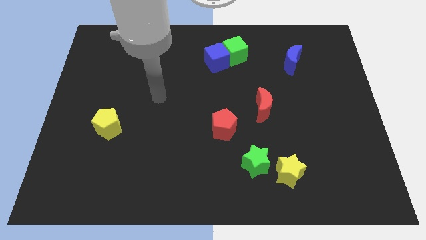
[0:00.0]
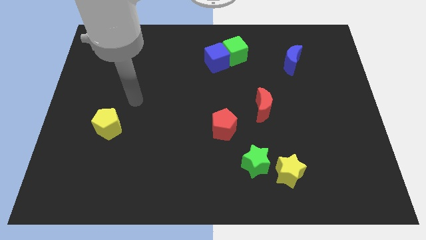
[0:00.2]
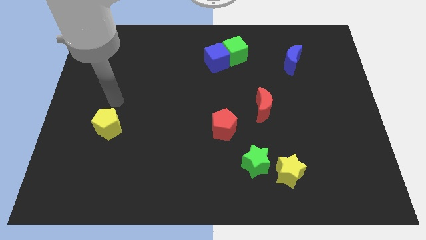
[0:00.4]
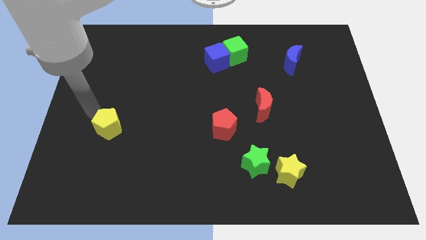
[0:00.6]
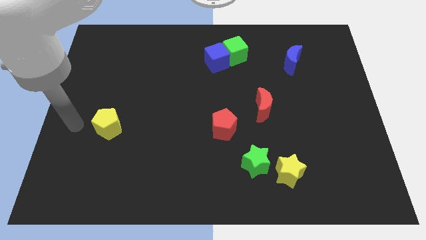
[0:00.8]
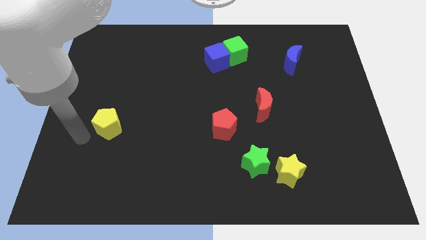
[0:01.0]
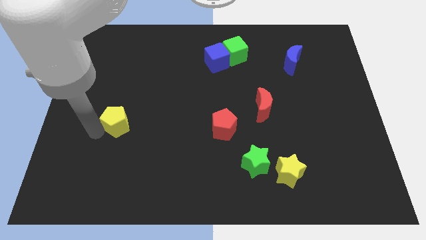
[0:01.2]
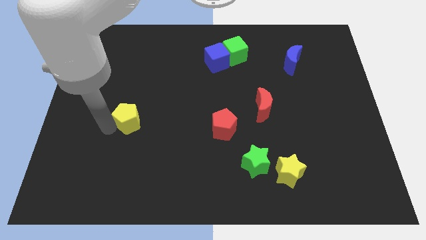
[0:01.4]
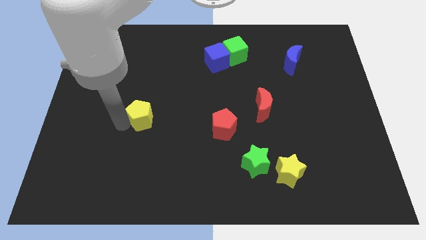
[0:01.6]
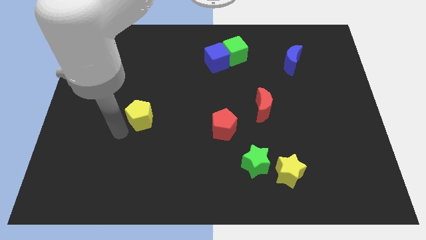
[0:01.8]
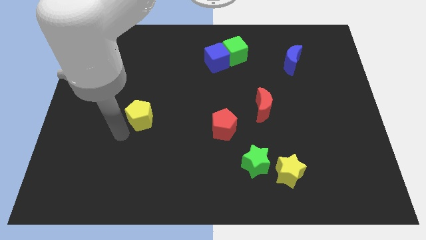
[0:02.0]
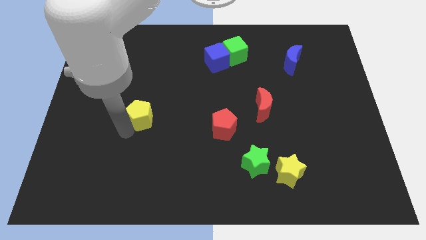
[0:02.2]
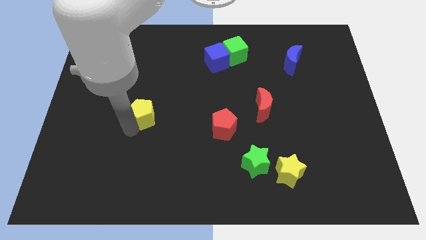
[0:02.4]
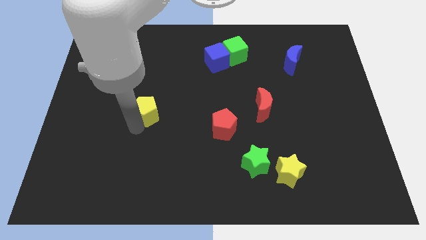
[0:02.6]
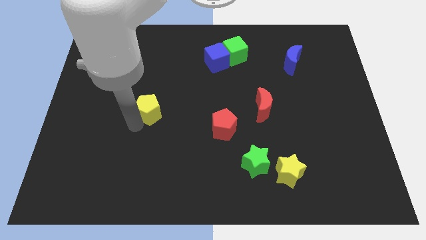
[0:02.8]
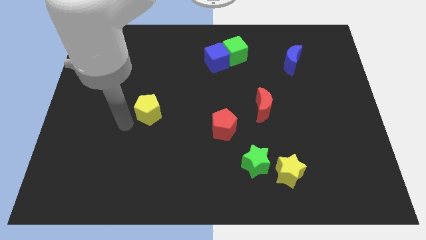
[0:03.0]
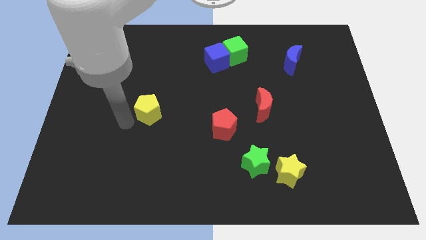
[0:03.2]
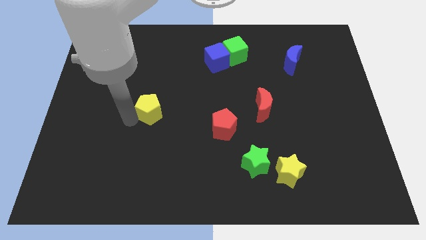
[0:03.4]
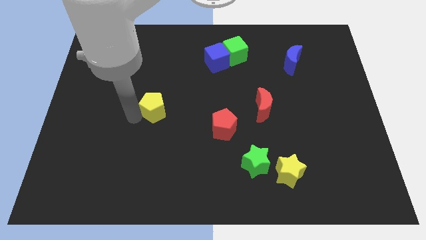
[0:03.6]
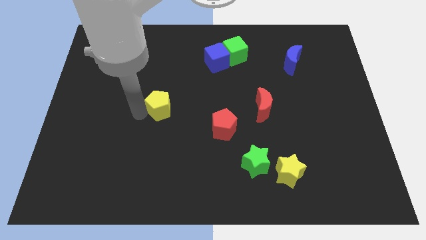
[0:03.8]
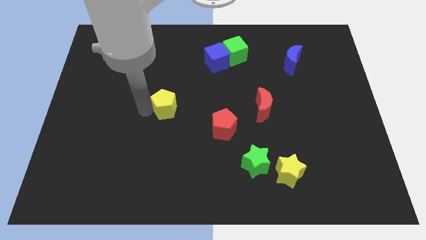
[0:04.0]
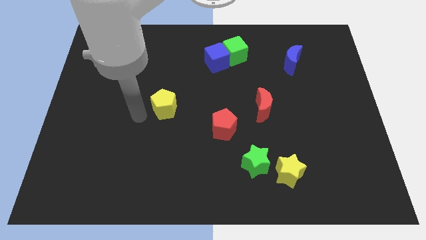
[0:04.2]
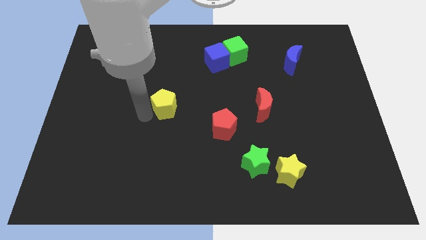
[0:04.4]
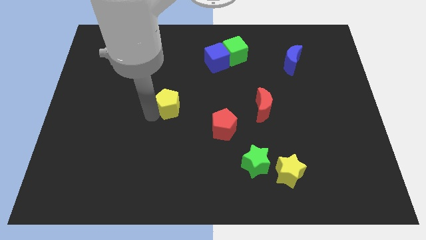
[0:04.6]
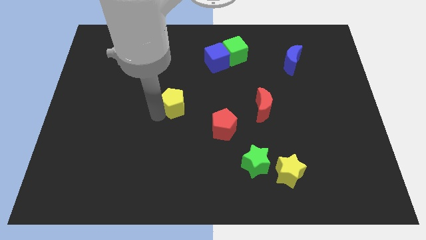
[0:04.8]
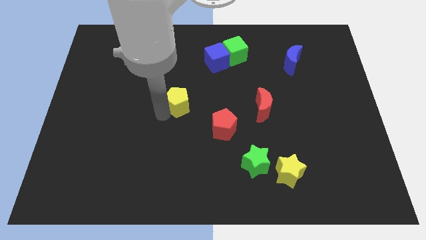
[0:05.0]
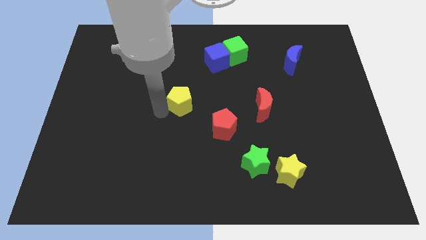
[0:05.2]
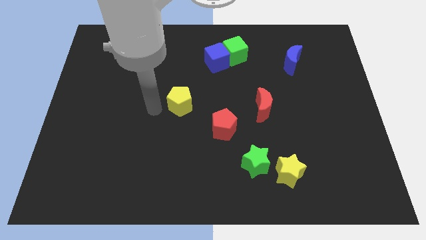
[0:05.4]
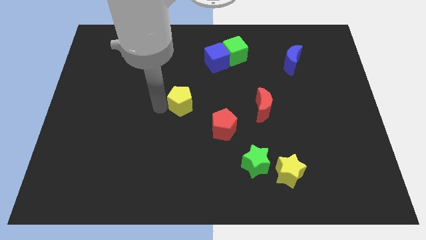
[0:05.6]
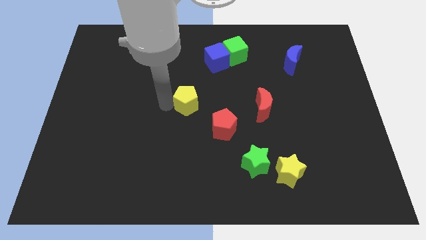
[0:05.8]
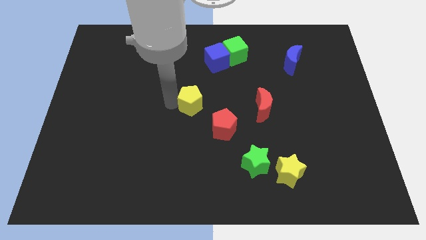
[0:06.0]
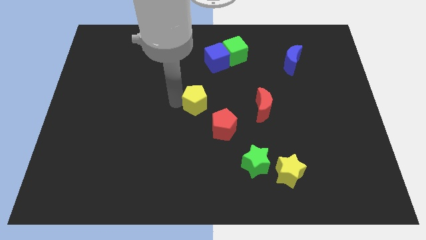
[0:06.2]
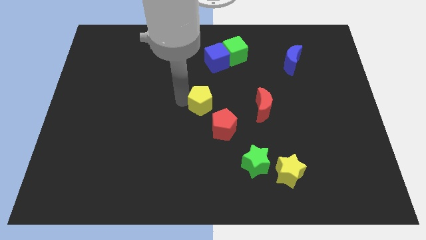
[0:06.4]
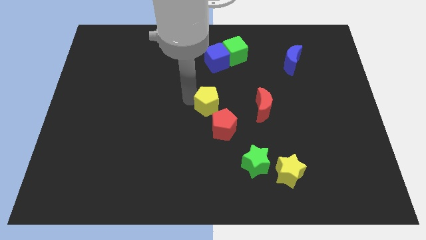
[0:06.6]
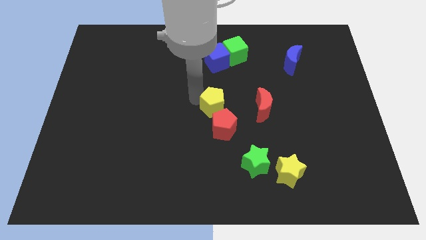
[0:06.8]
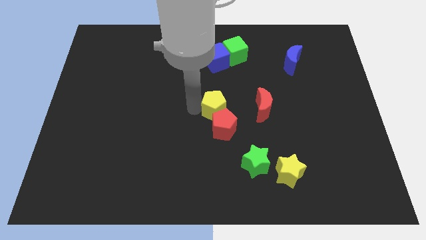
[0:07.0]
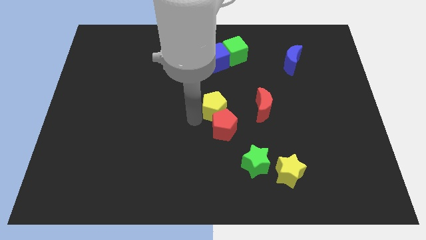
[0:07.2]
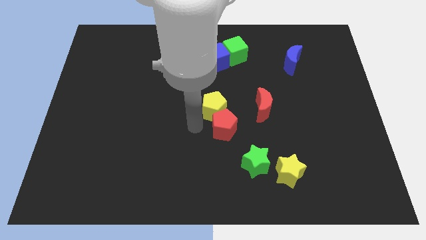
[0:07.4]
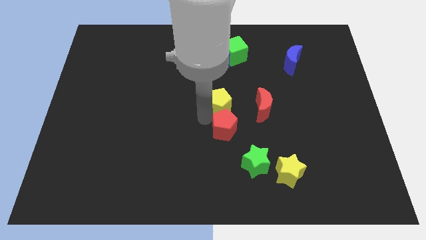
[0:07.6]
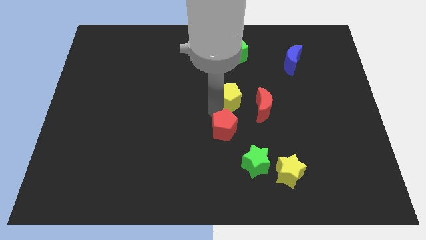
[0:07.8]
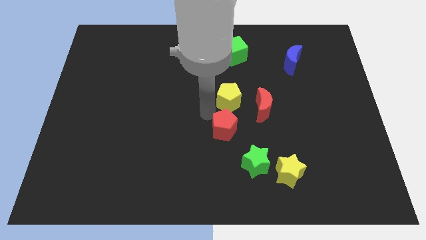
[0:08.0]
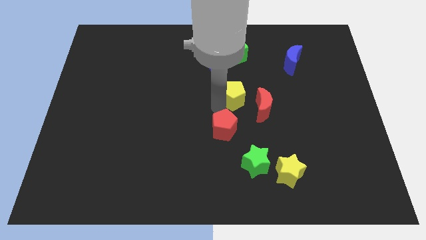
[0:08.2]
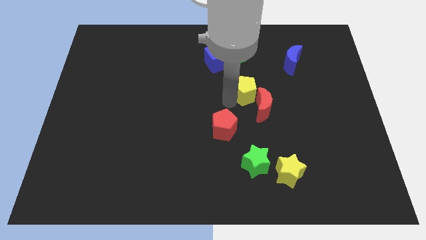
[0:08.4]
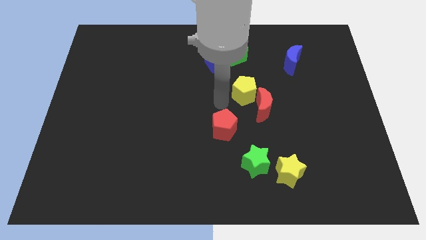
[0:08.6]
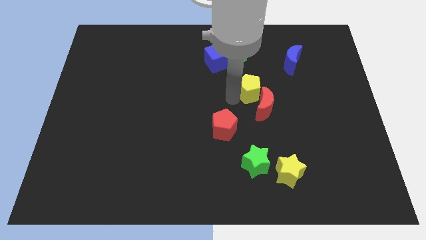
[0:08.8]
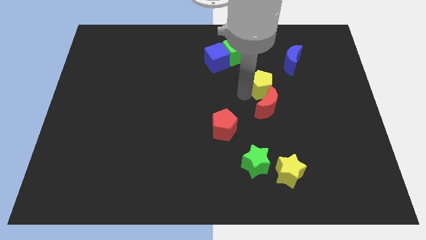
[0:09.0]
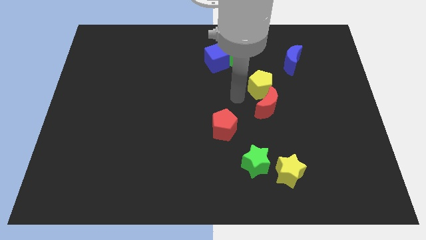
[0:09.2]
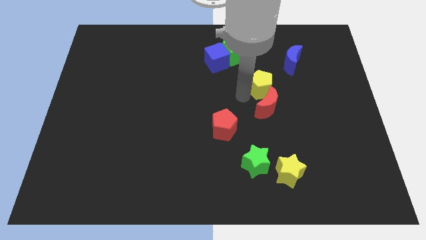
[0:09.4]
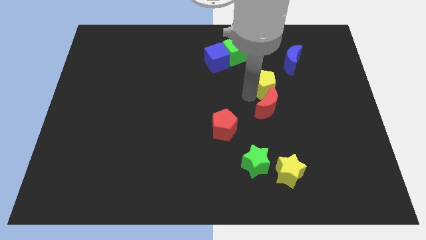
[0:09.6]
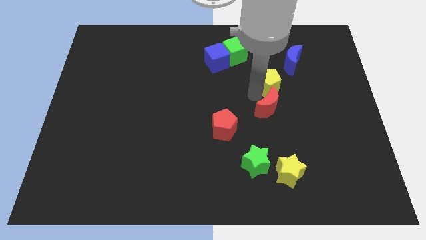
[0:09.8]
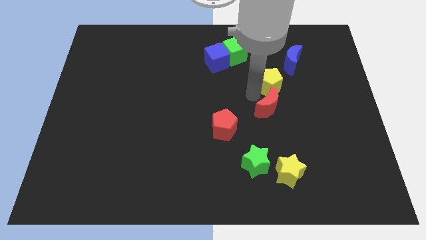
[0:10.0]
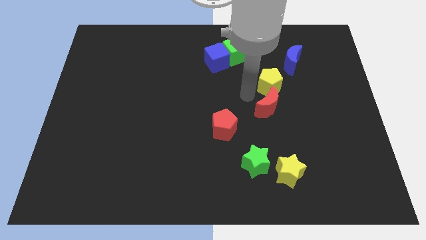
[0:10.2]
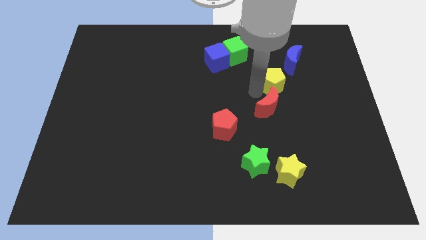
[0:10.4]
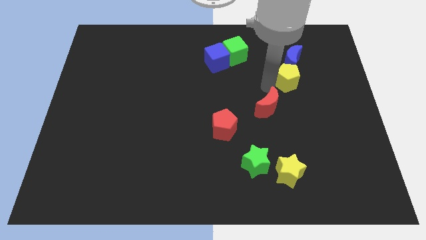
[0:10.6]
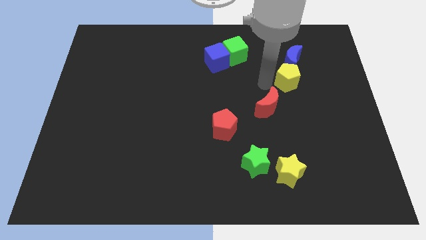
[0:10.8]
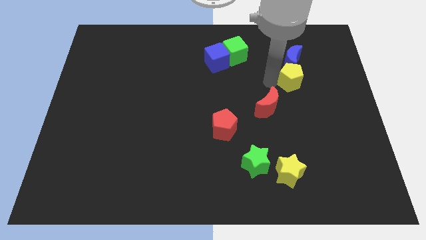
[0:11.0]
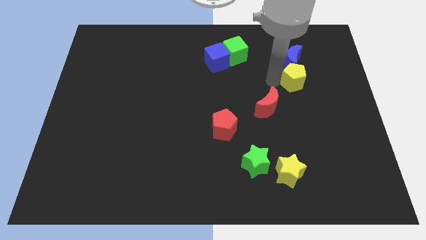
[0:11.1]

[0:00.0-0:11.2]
put the yellow pentagon diagonally down and to the right of the blue moon
